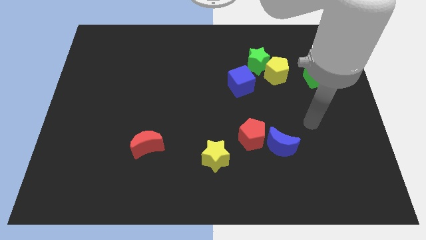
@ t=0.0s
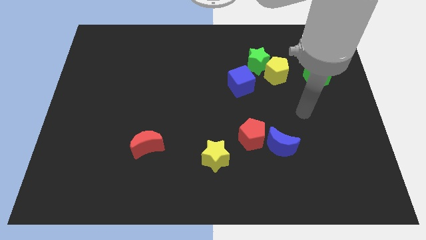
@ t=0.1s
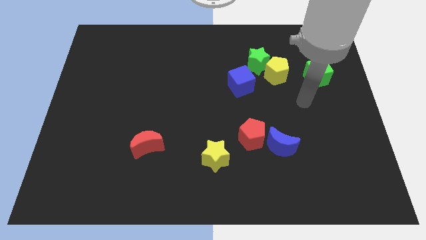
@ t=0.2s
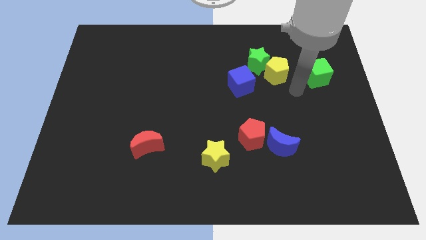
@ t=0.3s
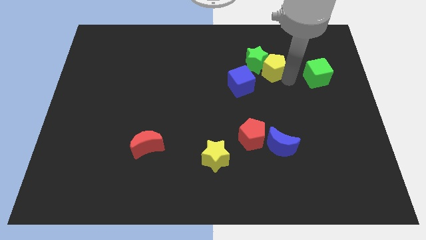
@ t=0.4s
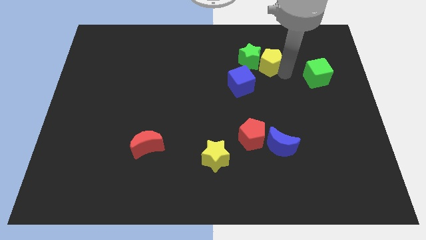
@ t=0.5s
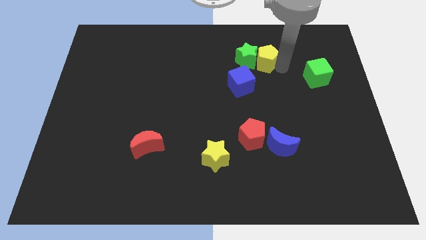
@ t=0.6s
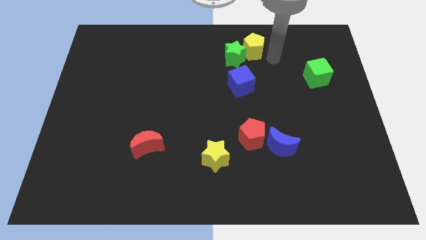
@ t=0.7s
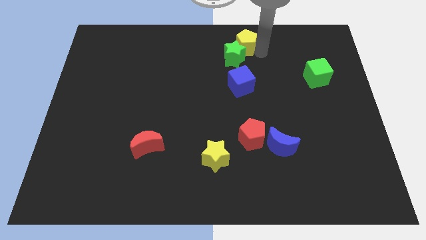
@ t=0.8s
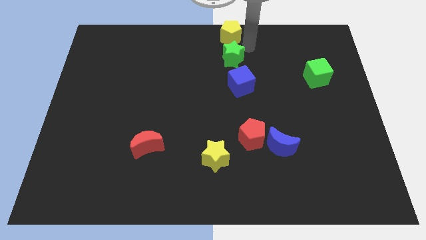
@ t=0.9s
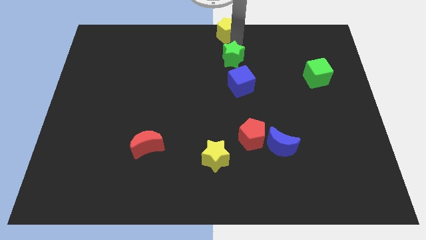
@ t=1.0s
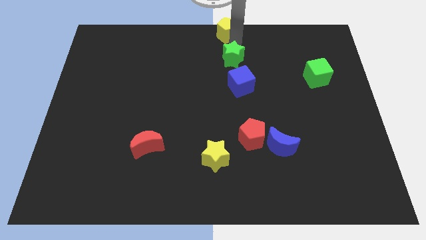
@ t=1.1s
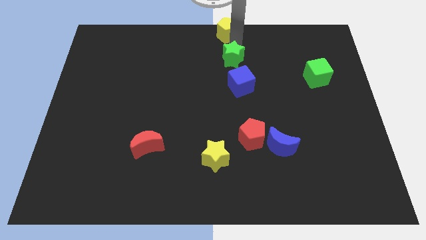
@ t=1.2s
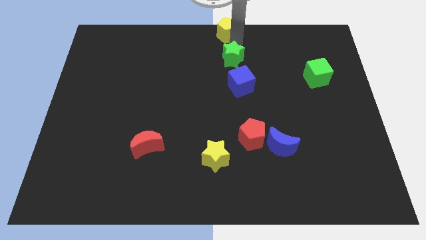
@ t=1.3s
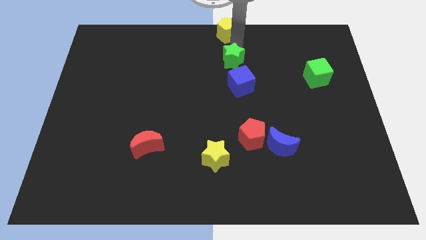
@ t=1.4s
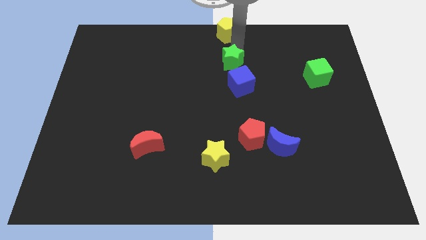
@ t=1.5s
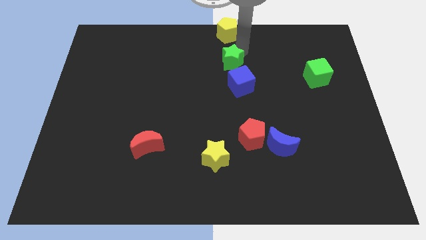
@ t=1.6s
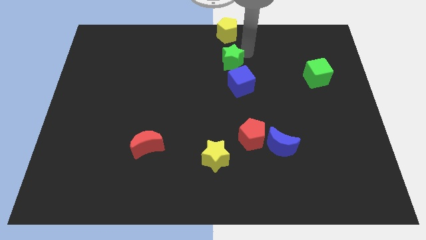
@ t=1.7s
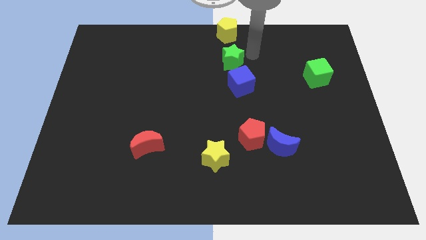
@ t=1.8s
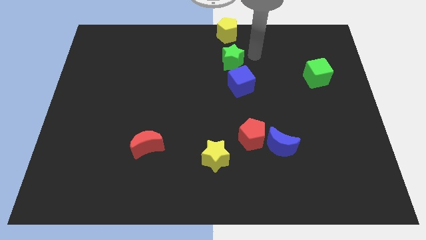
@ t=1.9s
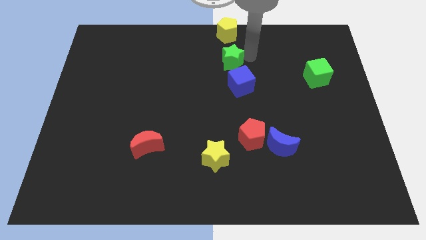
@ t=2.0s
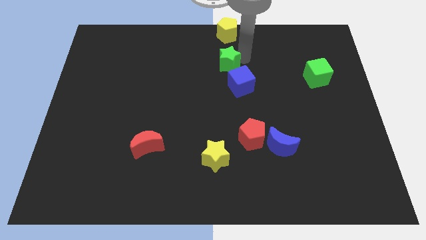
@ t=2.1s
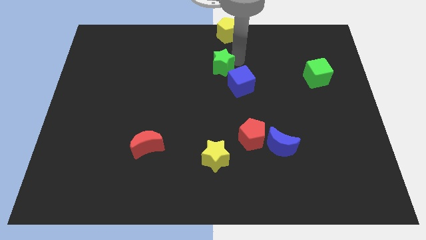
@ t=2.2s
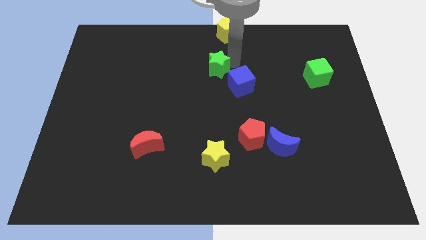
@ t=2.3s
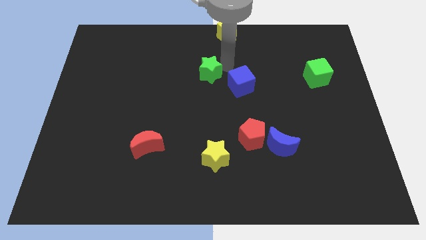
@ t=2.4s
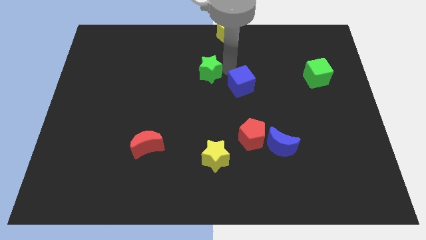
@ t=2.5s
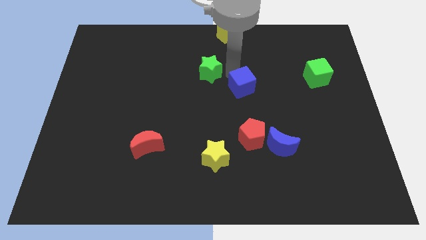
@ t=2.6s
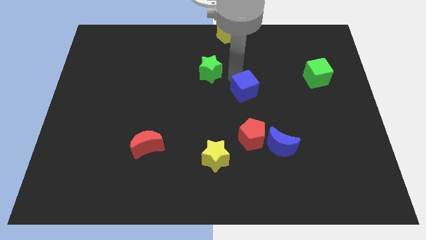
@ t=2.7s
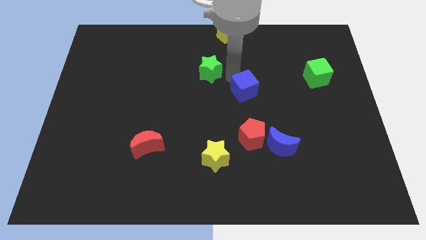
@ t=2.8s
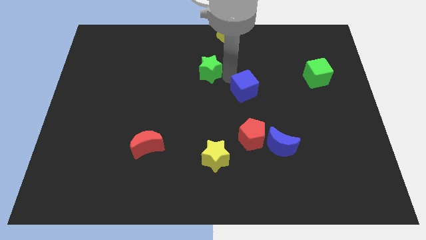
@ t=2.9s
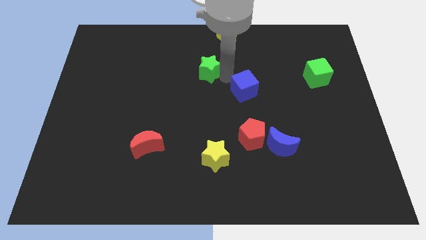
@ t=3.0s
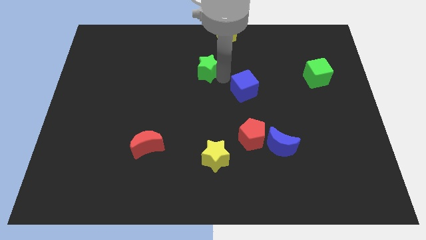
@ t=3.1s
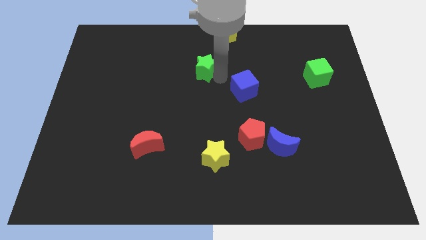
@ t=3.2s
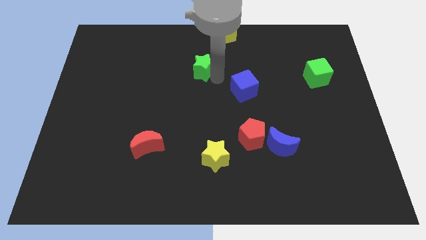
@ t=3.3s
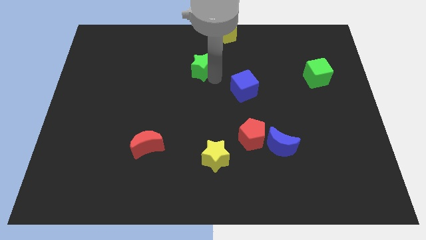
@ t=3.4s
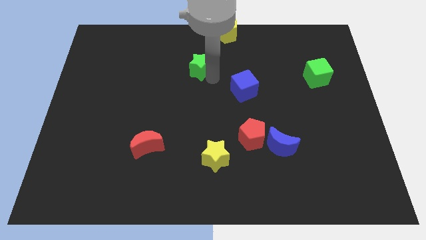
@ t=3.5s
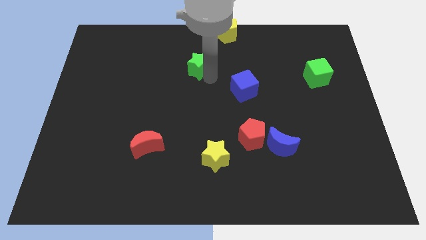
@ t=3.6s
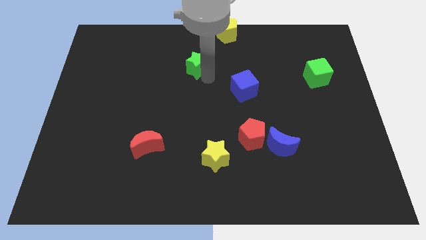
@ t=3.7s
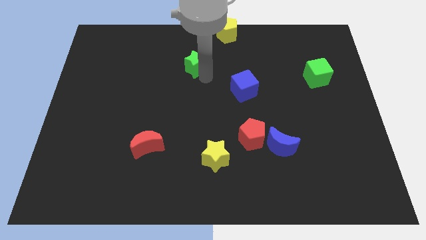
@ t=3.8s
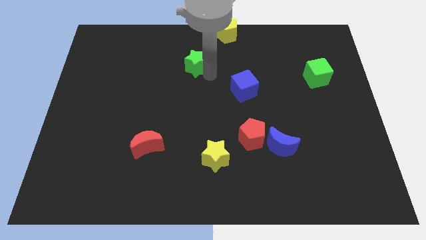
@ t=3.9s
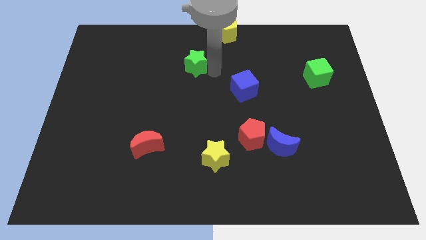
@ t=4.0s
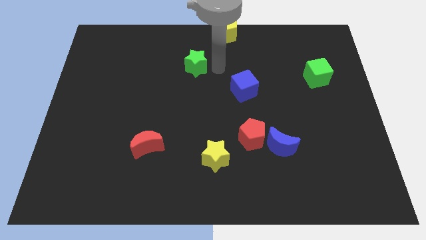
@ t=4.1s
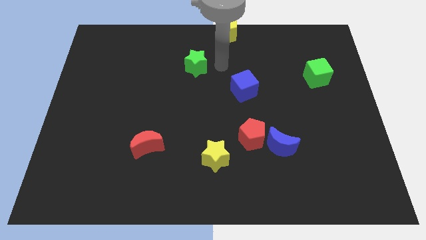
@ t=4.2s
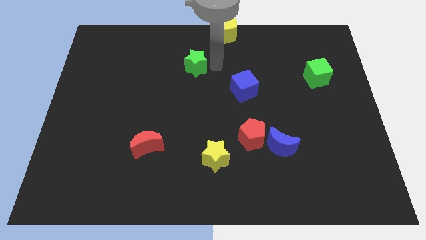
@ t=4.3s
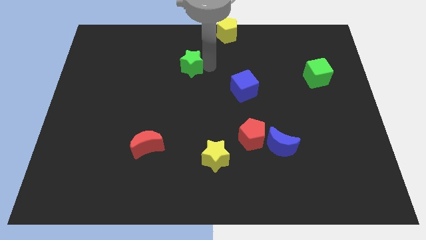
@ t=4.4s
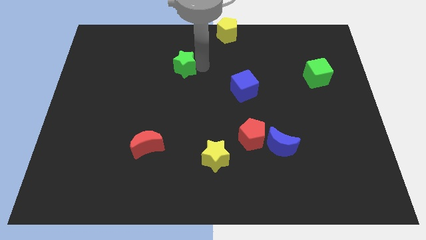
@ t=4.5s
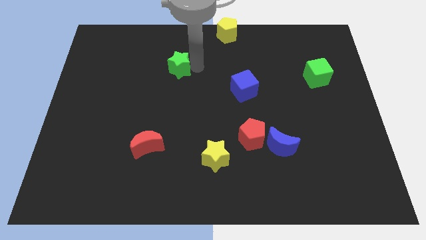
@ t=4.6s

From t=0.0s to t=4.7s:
slide the green star left

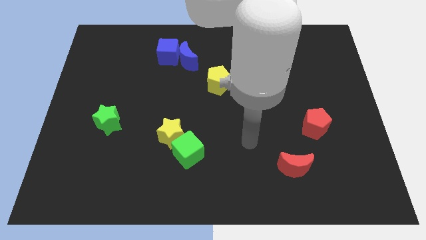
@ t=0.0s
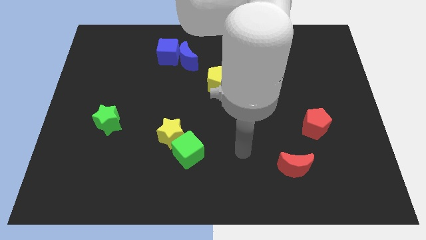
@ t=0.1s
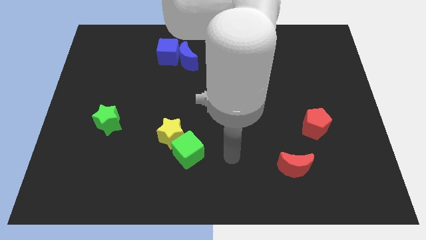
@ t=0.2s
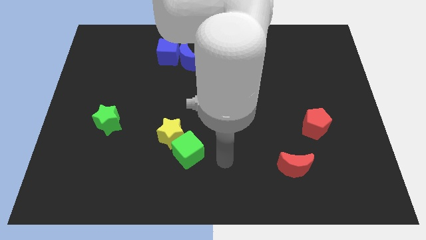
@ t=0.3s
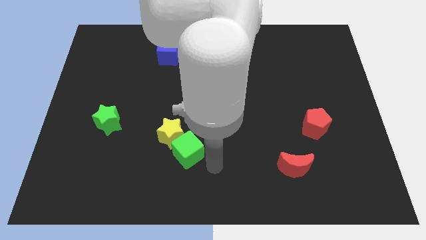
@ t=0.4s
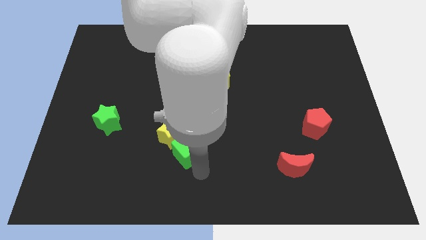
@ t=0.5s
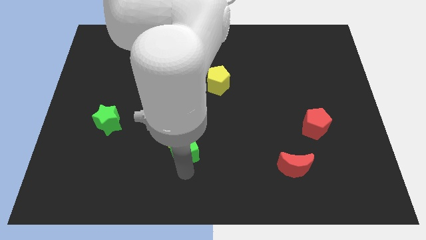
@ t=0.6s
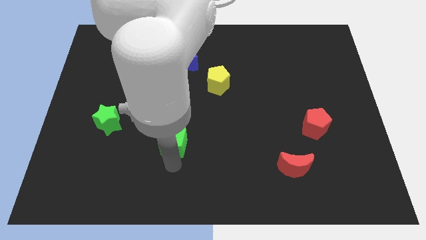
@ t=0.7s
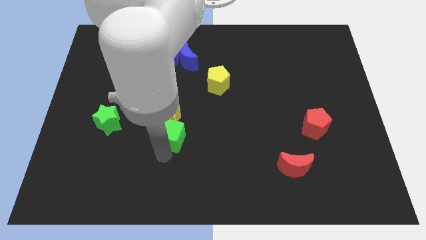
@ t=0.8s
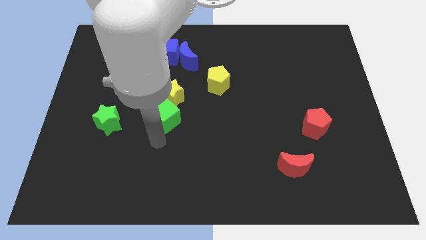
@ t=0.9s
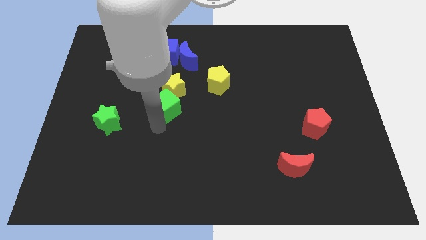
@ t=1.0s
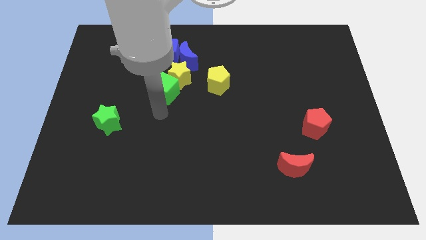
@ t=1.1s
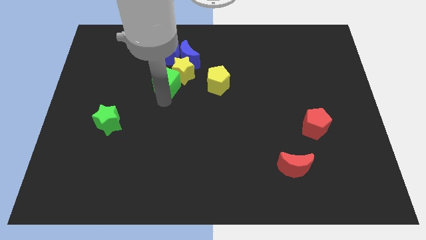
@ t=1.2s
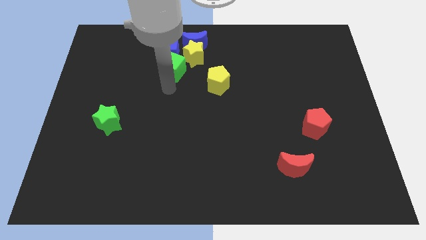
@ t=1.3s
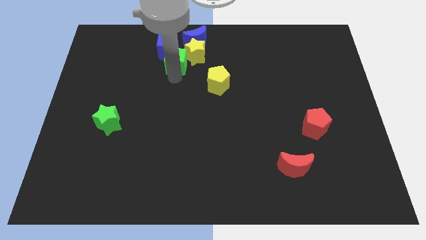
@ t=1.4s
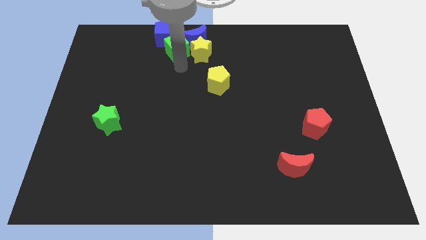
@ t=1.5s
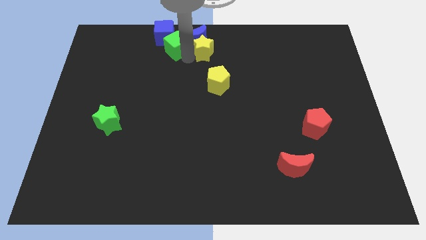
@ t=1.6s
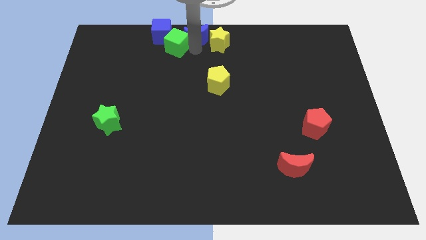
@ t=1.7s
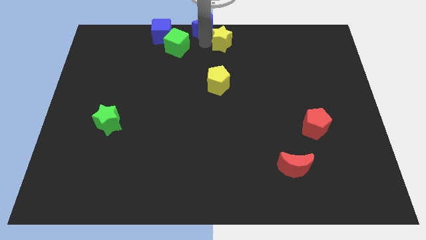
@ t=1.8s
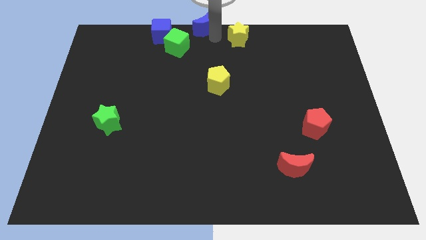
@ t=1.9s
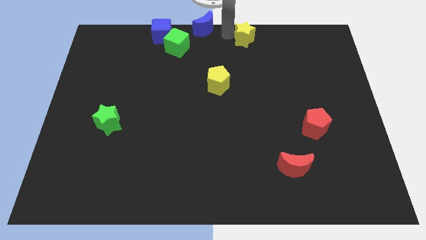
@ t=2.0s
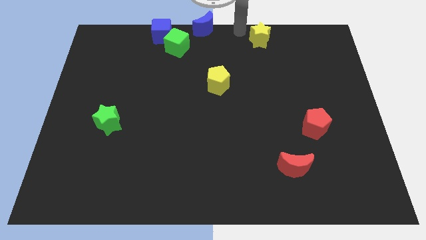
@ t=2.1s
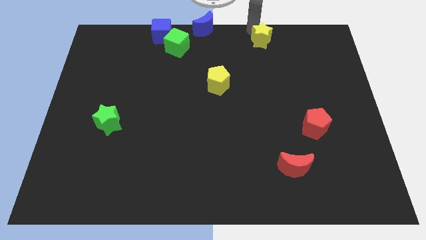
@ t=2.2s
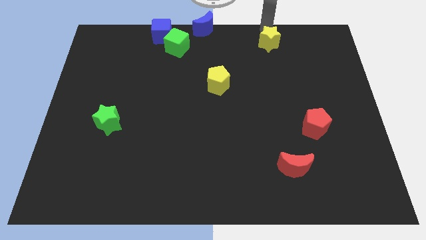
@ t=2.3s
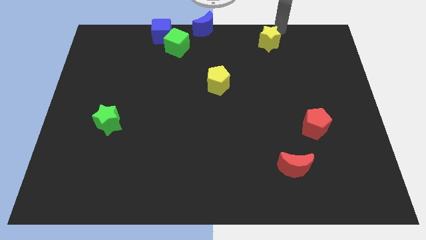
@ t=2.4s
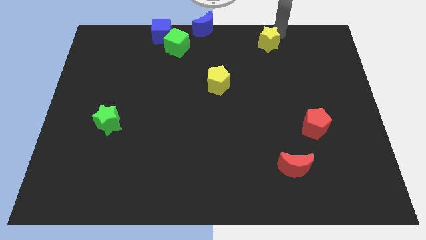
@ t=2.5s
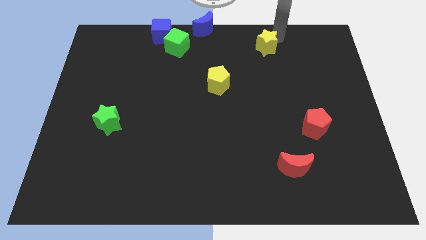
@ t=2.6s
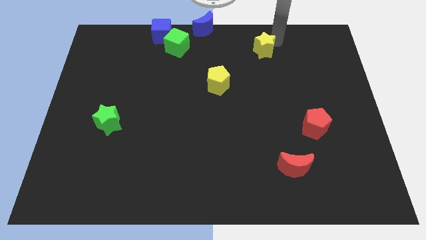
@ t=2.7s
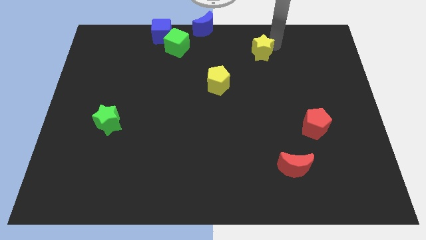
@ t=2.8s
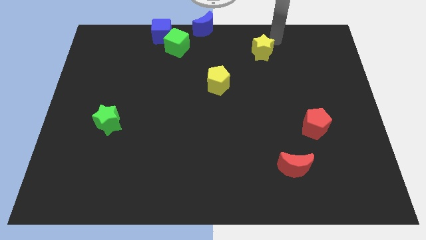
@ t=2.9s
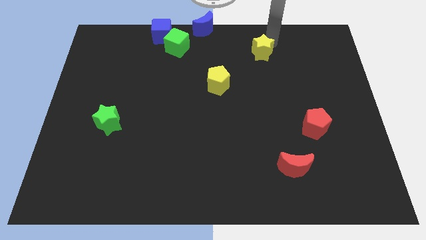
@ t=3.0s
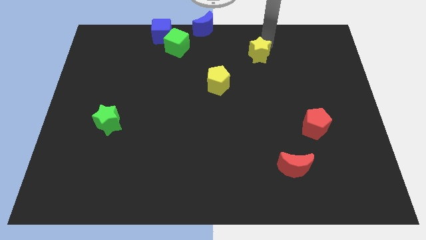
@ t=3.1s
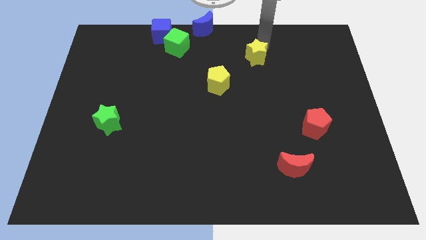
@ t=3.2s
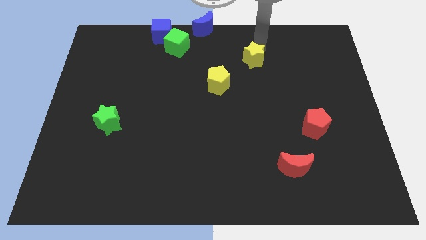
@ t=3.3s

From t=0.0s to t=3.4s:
push the yellow star somewhat upwards and right
